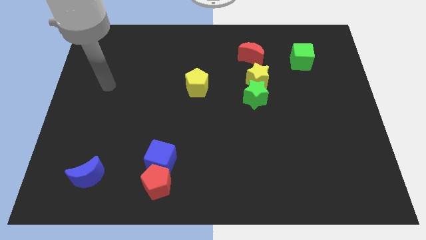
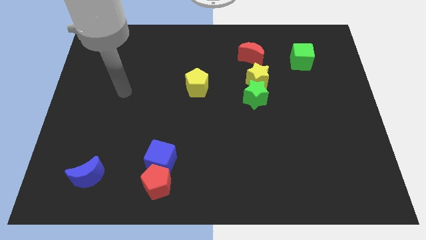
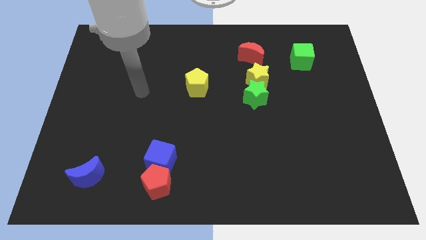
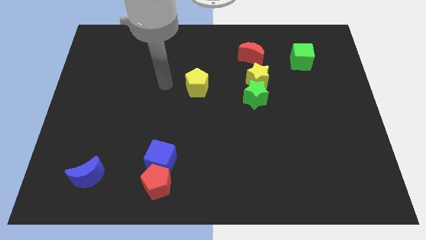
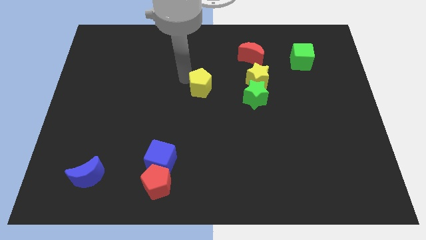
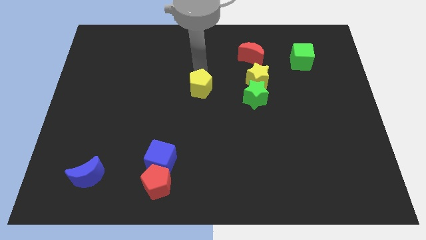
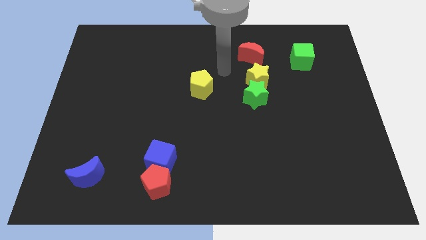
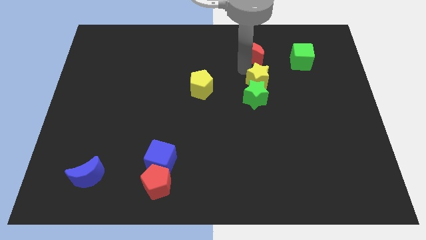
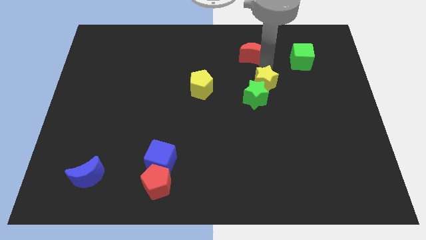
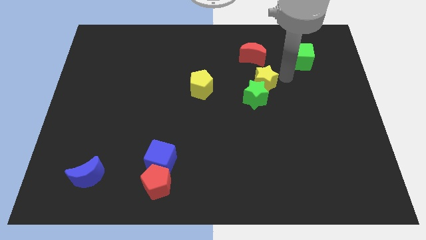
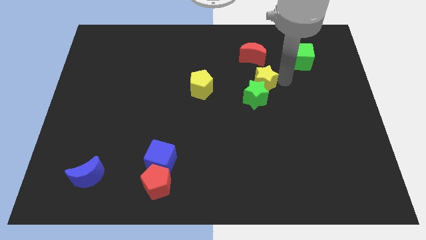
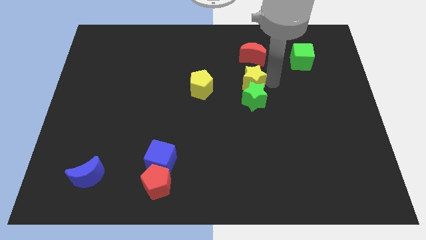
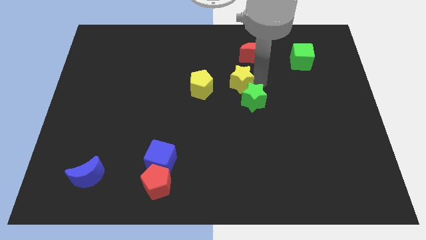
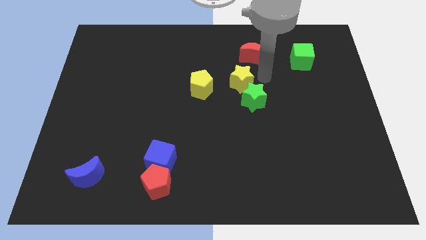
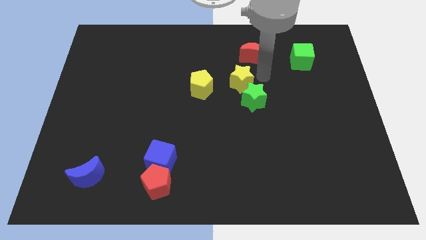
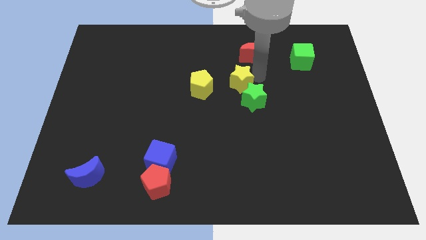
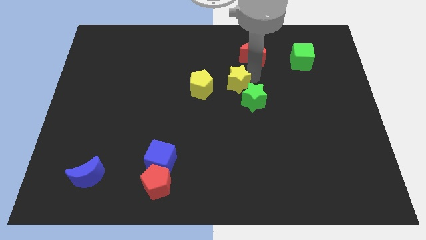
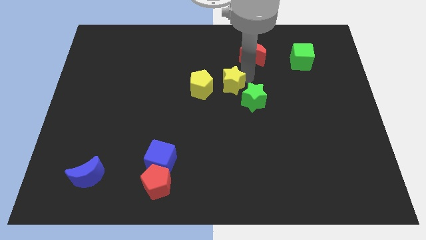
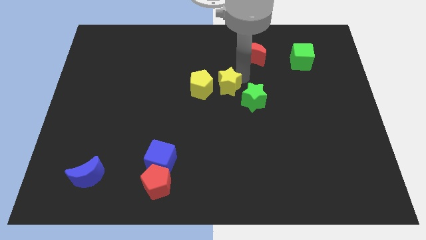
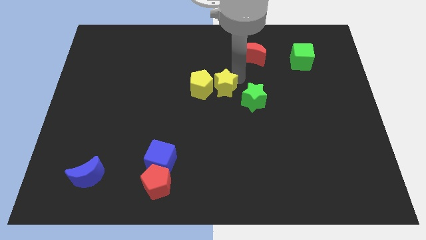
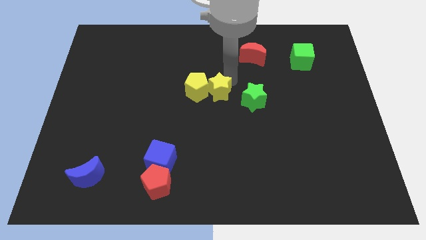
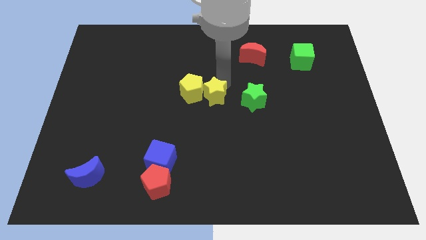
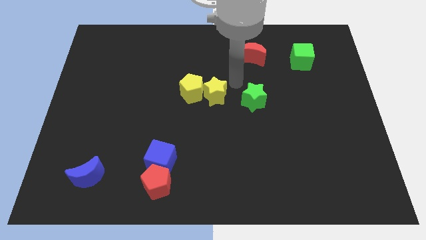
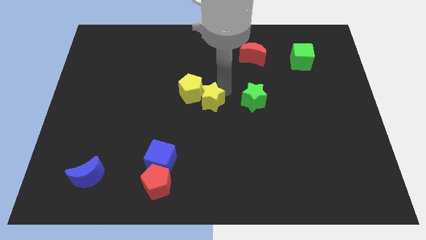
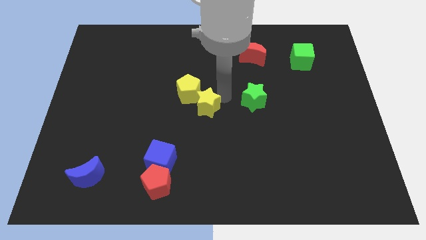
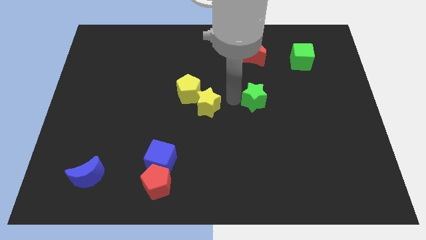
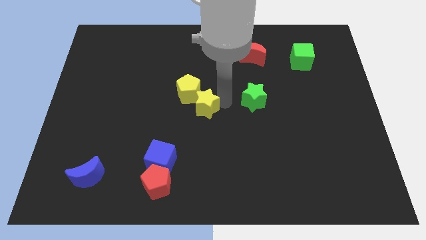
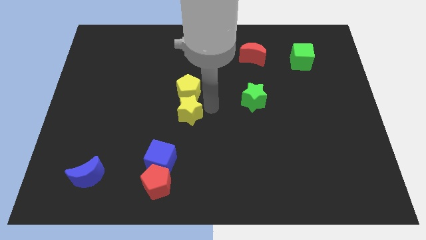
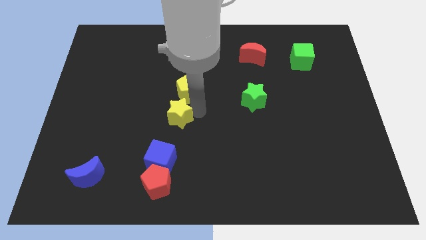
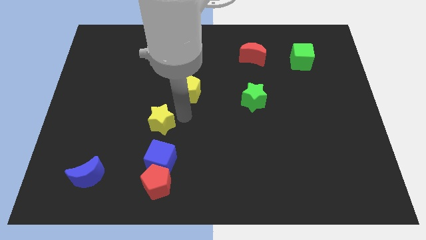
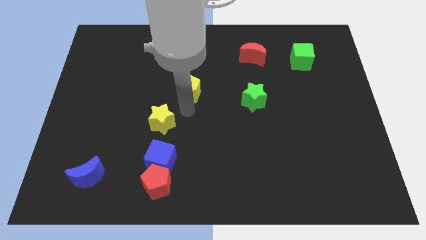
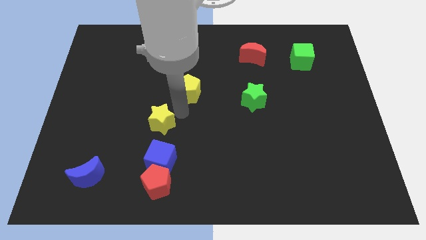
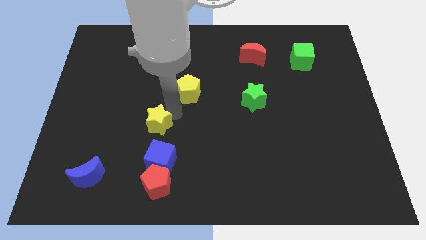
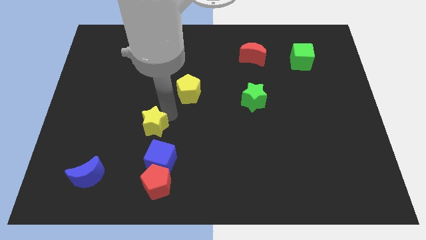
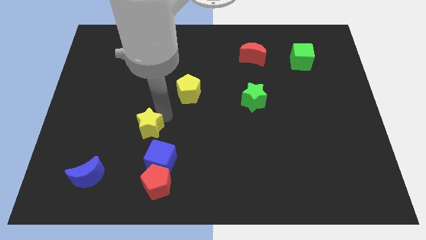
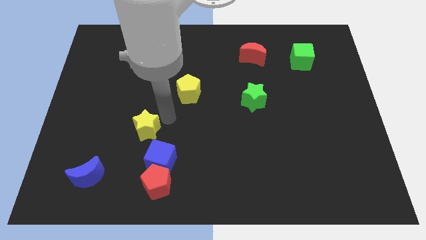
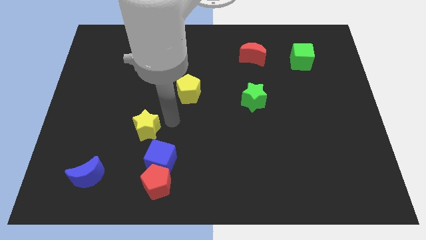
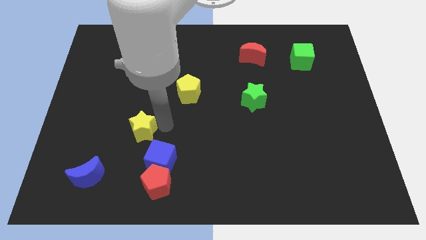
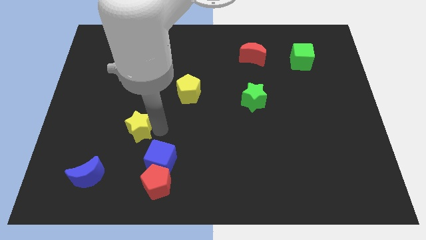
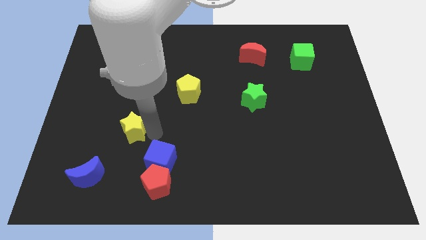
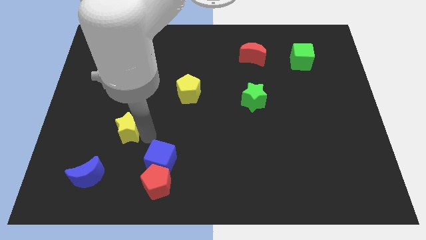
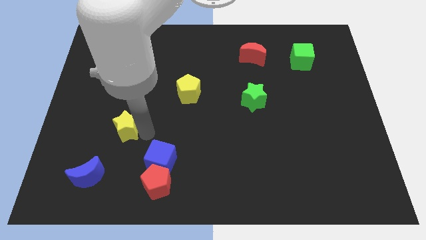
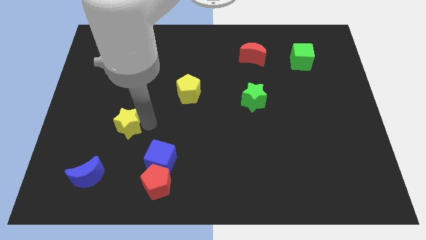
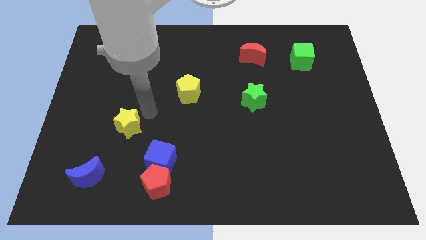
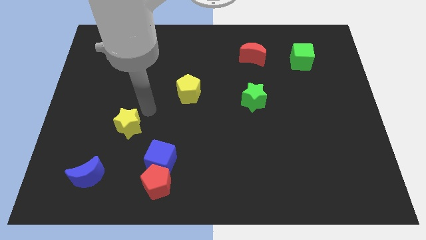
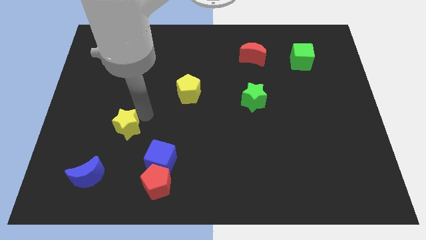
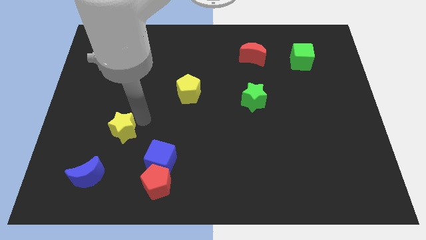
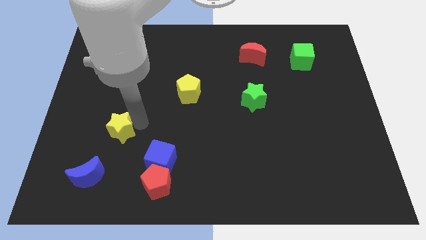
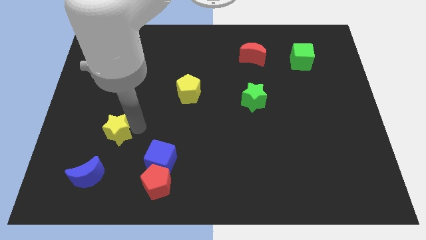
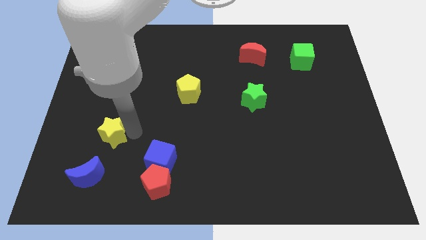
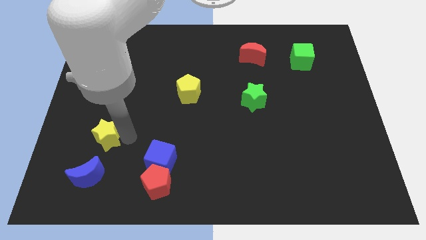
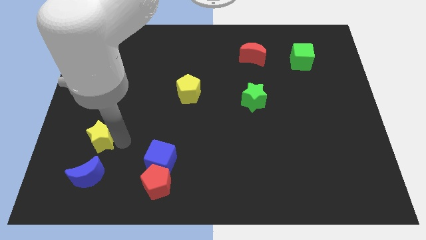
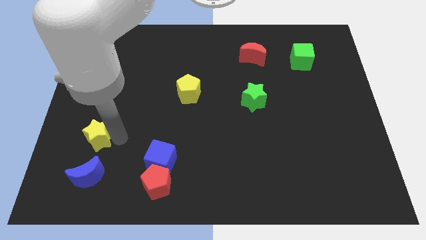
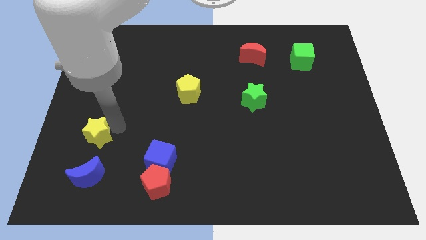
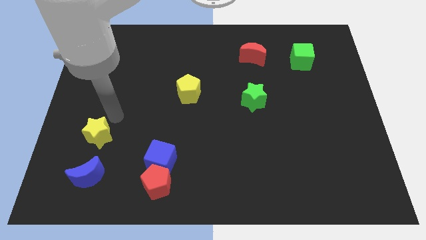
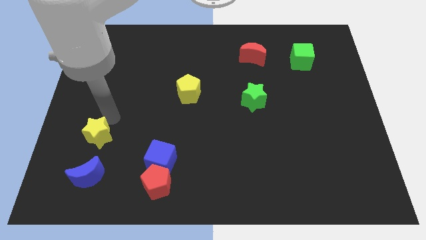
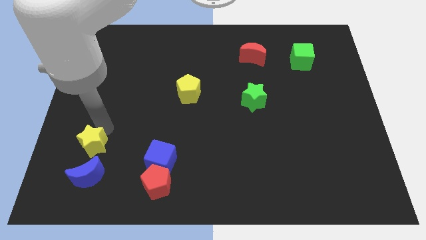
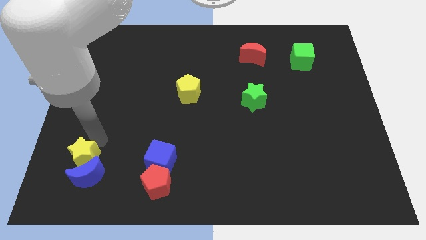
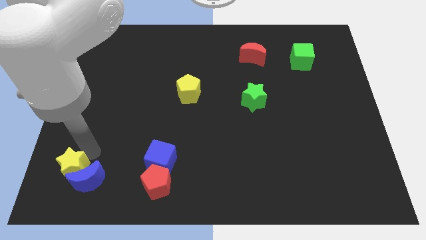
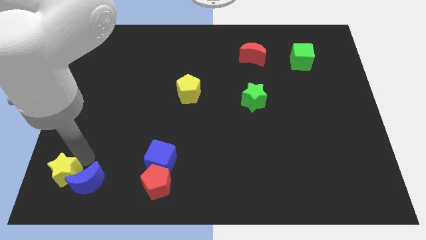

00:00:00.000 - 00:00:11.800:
slide the yellow star to the bottom left
